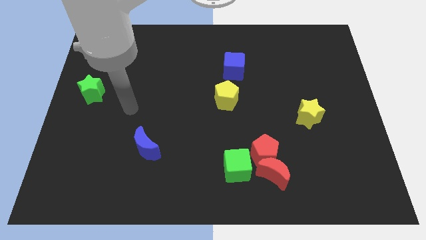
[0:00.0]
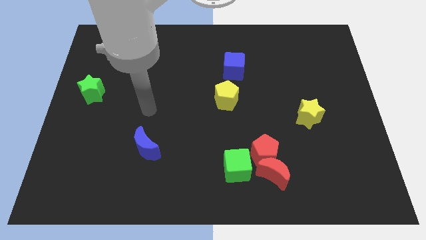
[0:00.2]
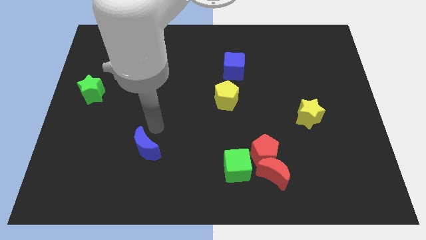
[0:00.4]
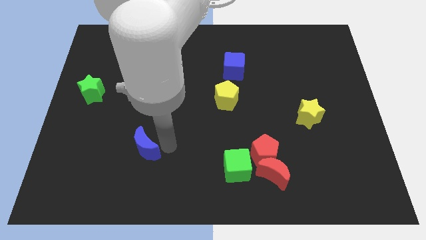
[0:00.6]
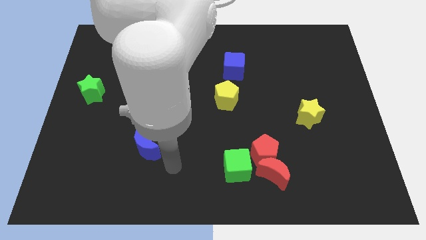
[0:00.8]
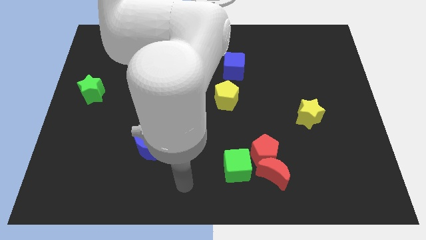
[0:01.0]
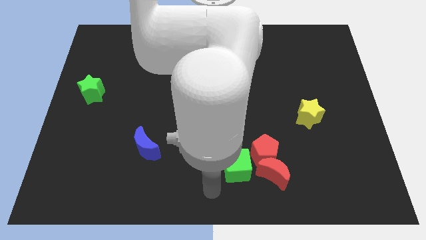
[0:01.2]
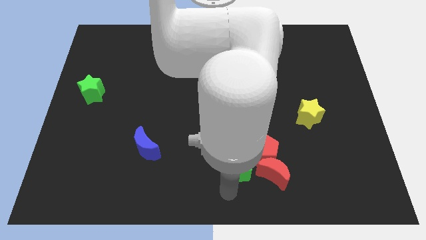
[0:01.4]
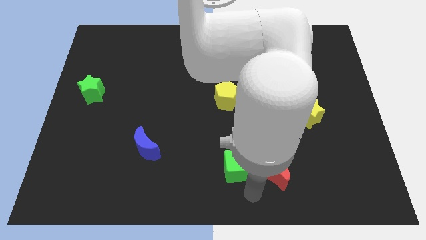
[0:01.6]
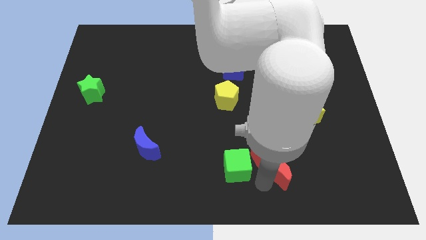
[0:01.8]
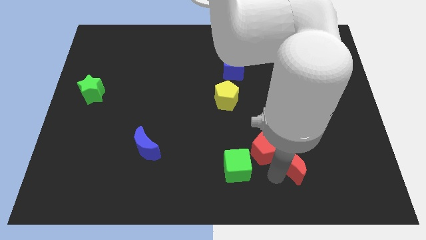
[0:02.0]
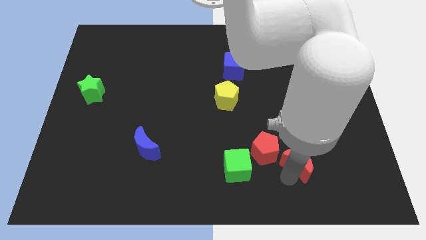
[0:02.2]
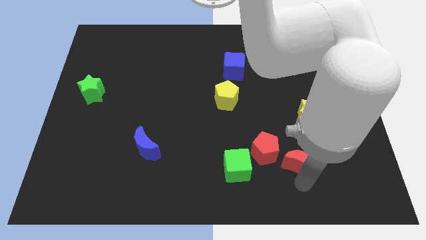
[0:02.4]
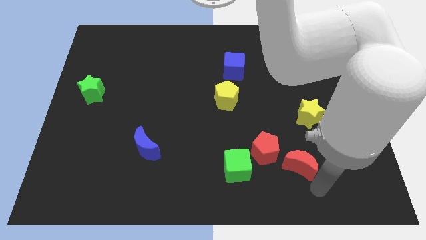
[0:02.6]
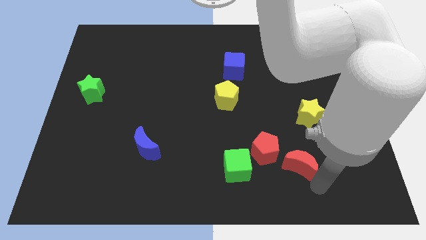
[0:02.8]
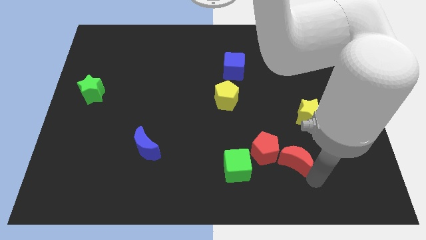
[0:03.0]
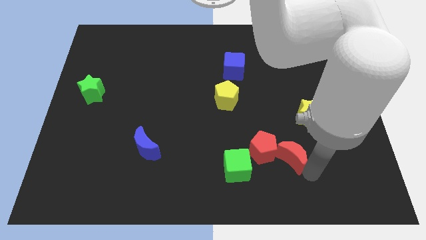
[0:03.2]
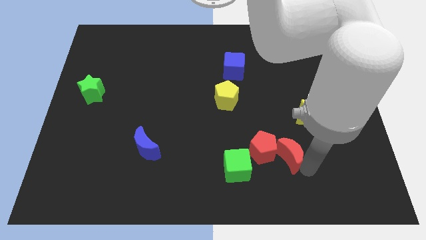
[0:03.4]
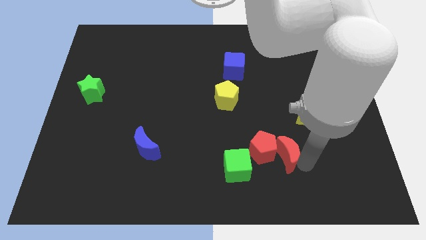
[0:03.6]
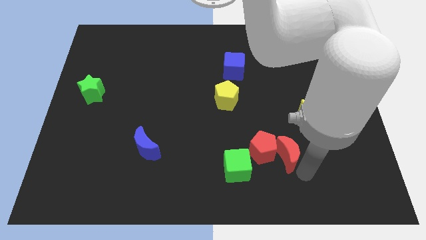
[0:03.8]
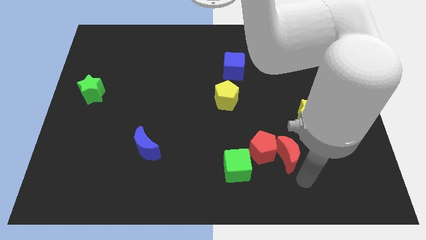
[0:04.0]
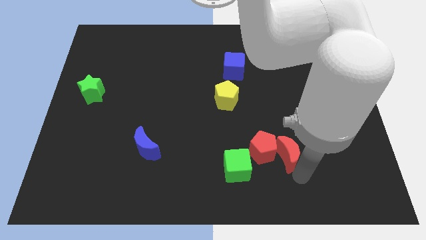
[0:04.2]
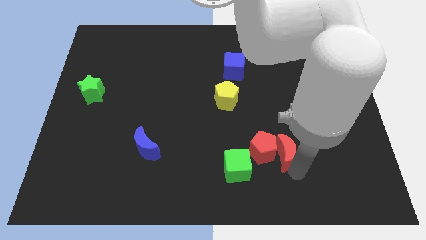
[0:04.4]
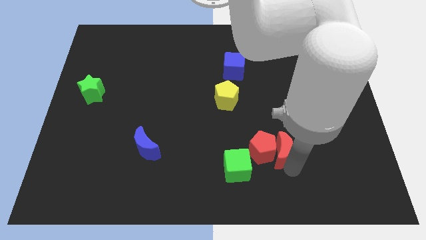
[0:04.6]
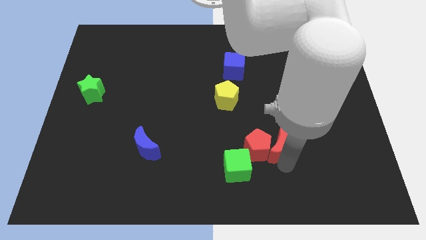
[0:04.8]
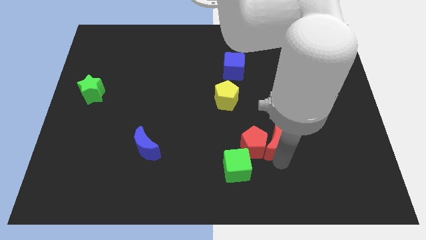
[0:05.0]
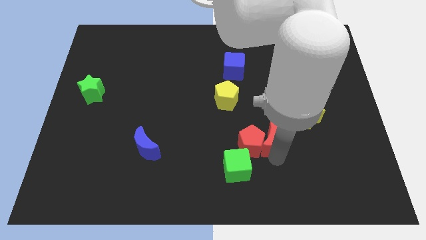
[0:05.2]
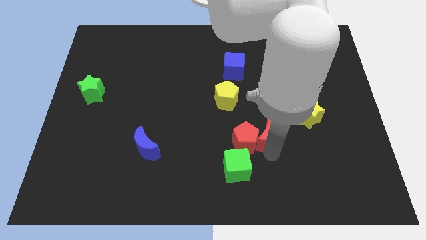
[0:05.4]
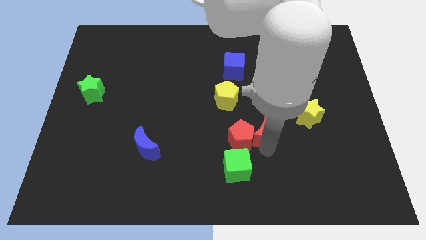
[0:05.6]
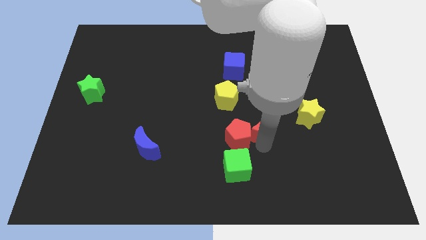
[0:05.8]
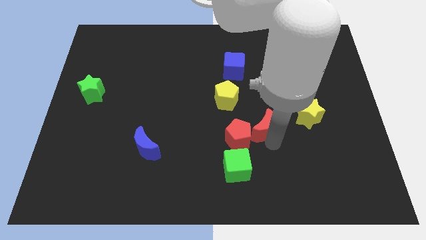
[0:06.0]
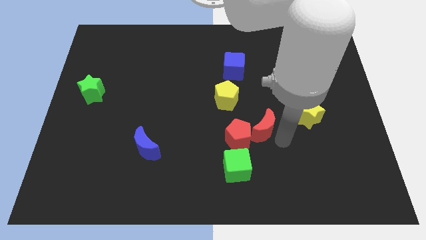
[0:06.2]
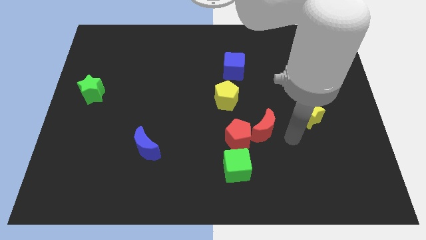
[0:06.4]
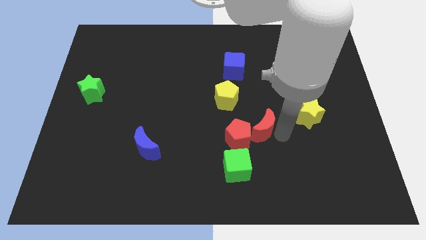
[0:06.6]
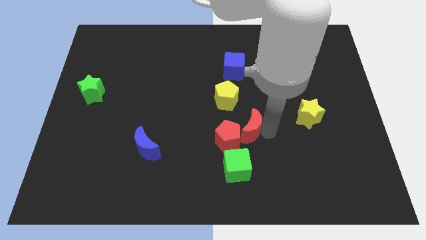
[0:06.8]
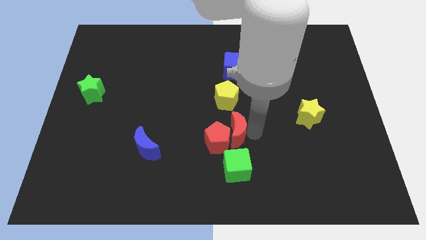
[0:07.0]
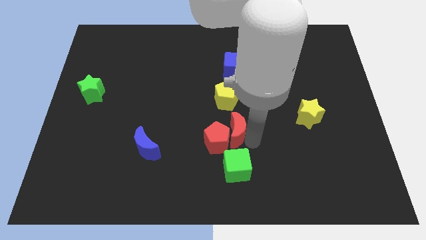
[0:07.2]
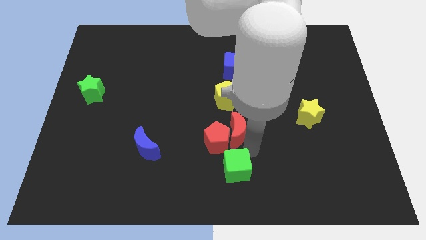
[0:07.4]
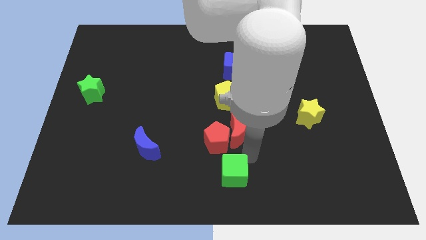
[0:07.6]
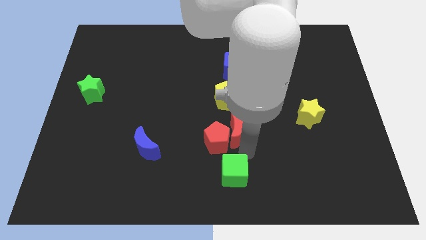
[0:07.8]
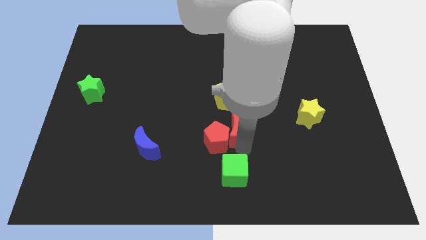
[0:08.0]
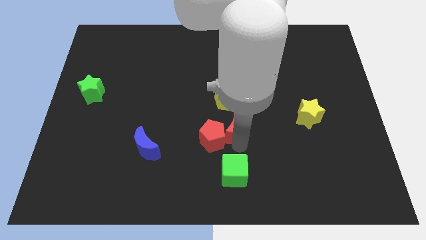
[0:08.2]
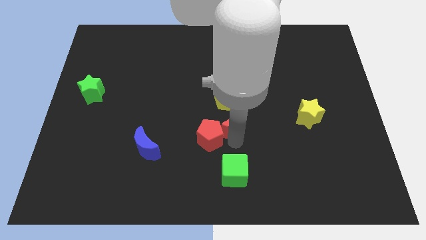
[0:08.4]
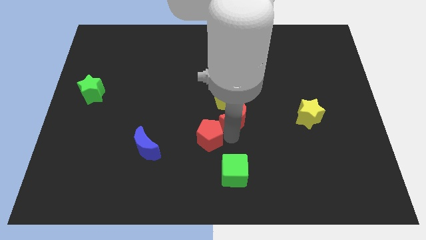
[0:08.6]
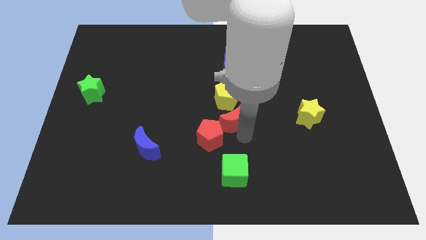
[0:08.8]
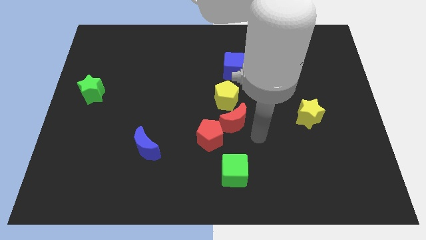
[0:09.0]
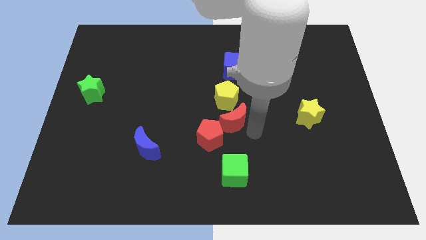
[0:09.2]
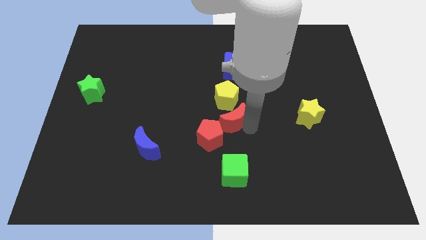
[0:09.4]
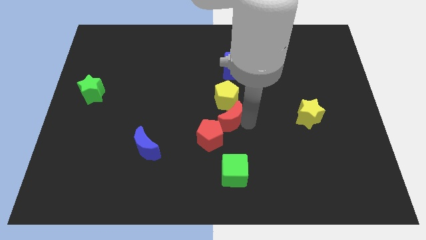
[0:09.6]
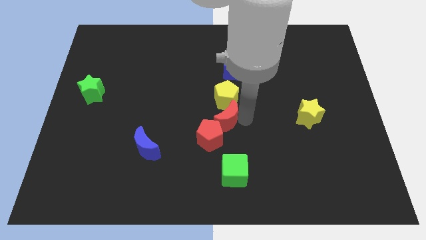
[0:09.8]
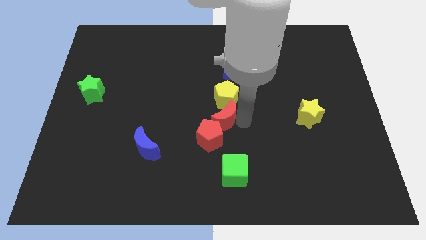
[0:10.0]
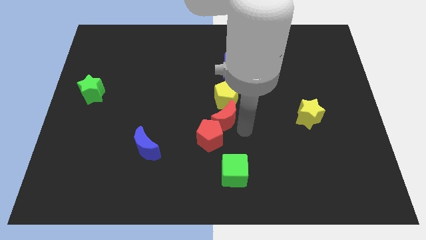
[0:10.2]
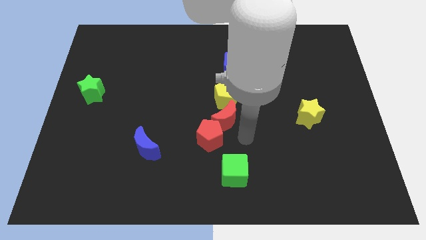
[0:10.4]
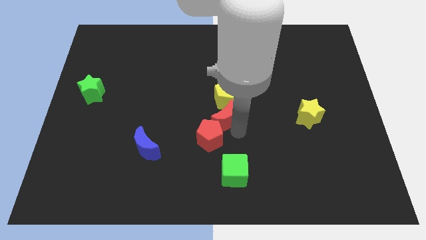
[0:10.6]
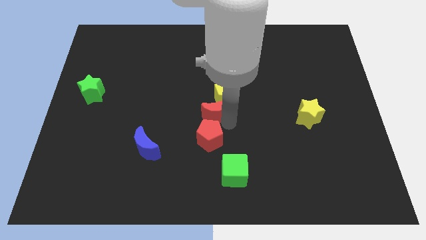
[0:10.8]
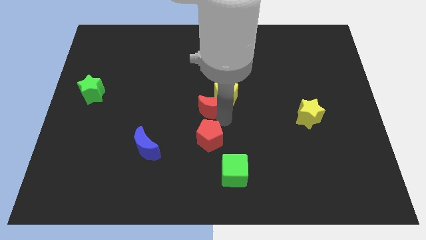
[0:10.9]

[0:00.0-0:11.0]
push the red moon up and left diagonally

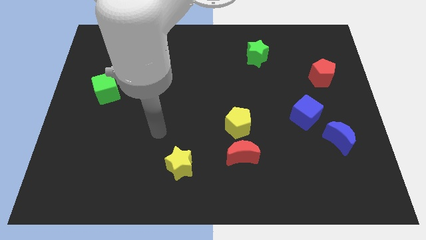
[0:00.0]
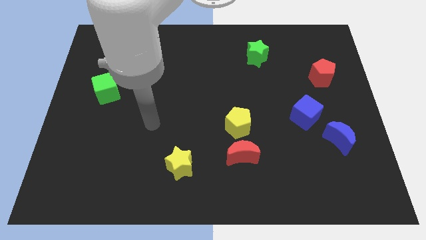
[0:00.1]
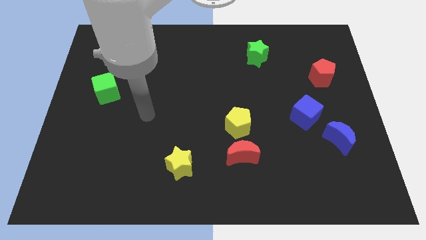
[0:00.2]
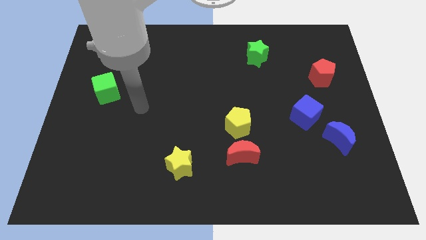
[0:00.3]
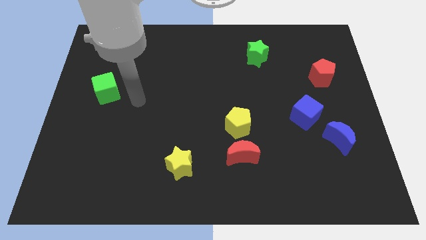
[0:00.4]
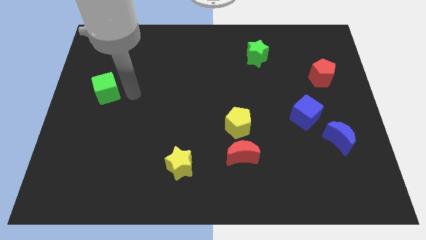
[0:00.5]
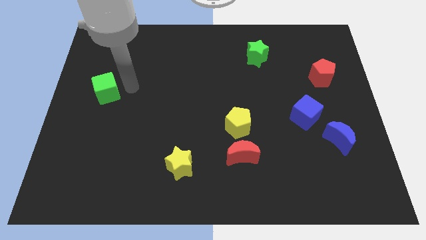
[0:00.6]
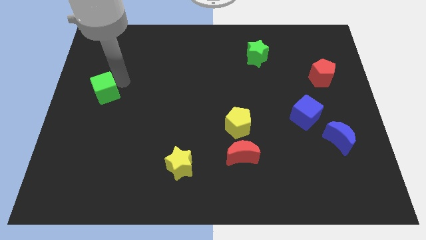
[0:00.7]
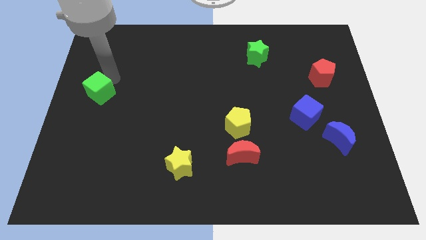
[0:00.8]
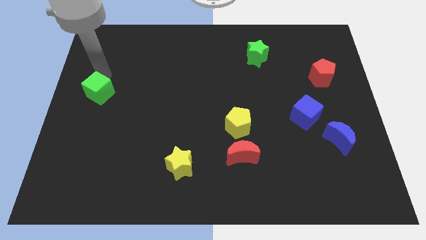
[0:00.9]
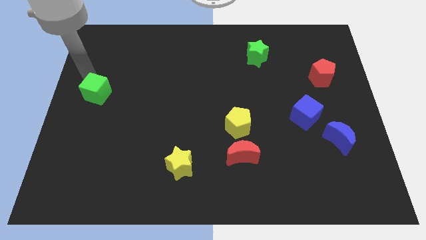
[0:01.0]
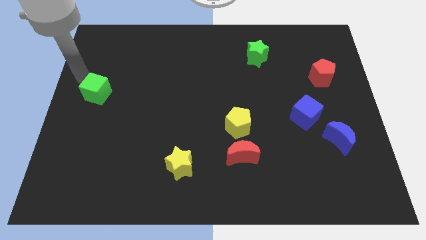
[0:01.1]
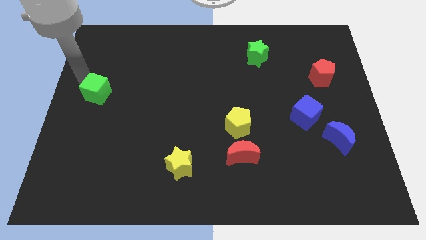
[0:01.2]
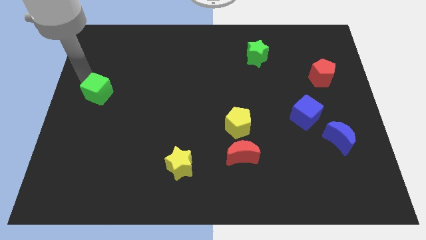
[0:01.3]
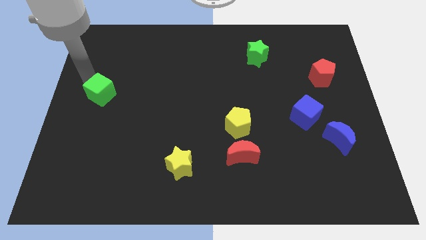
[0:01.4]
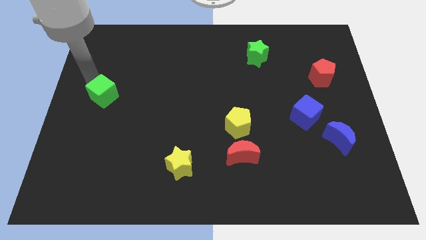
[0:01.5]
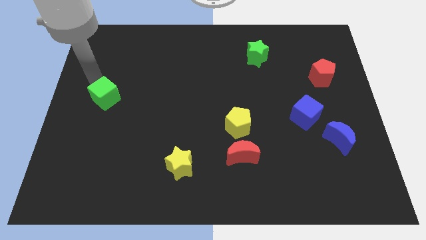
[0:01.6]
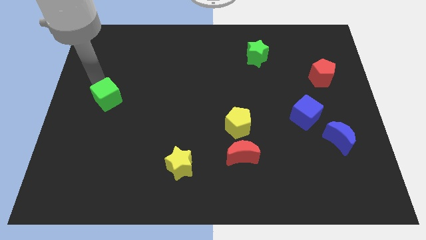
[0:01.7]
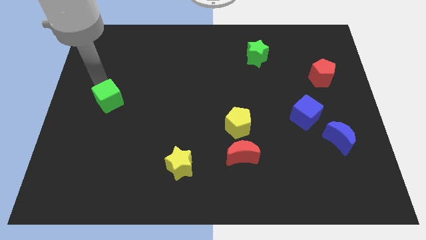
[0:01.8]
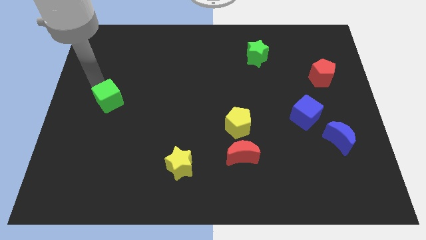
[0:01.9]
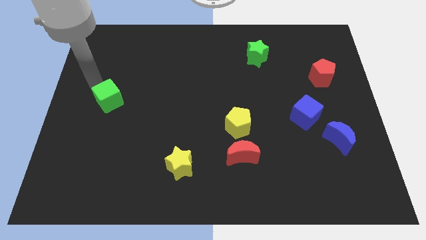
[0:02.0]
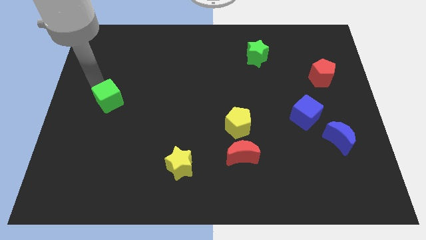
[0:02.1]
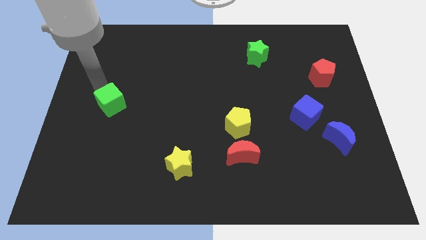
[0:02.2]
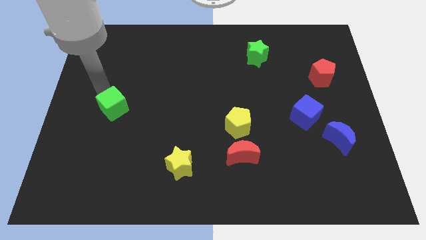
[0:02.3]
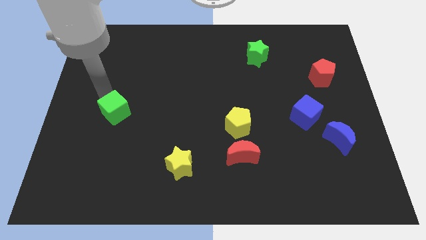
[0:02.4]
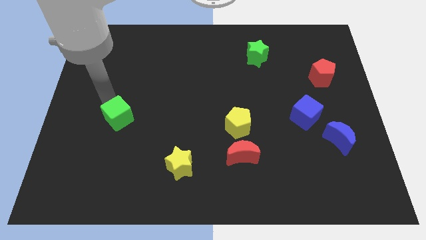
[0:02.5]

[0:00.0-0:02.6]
push the green cube downwards and then to the right slightly
